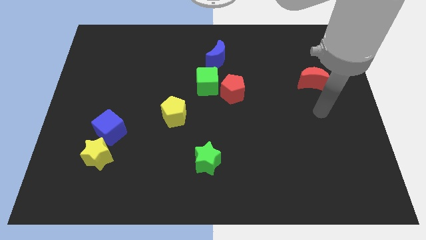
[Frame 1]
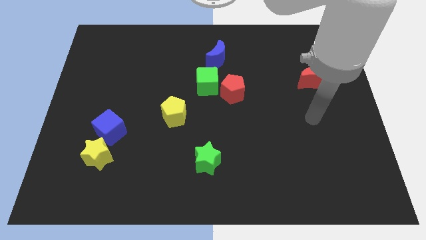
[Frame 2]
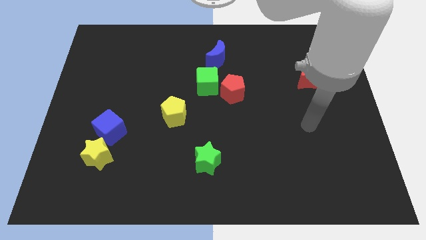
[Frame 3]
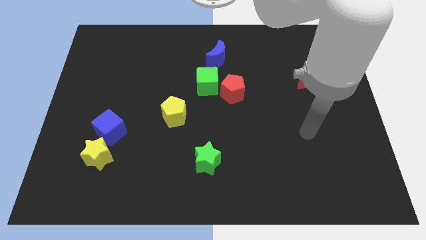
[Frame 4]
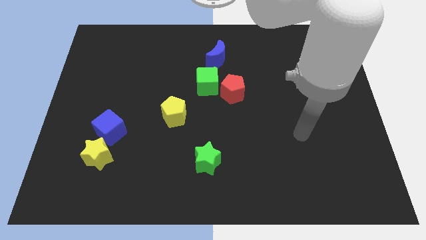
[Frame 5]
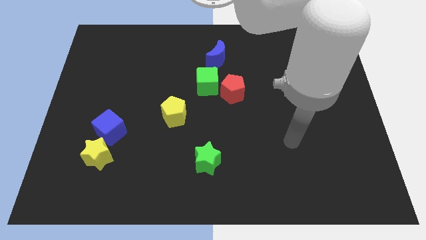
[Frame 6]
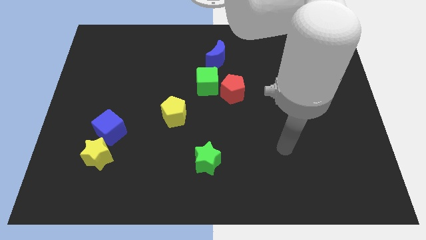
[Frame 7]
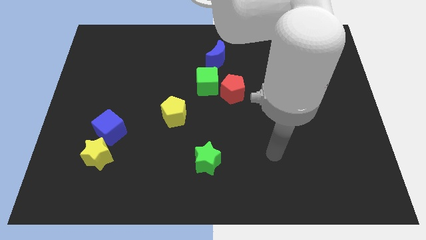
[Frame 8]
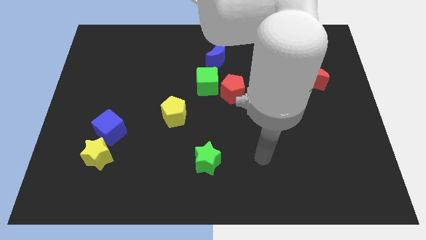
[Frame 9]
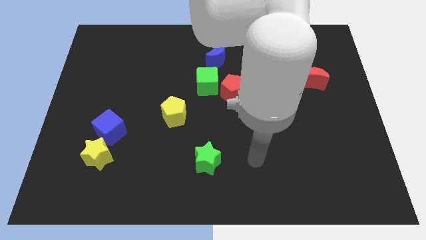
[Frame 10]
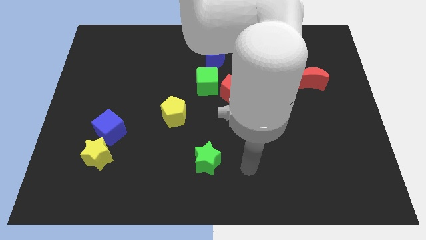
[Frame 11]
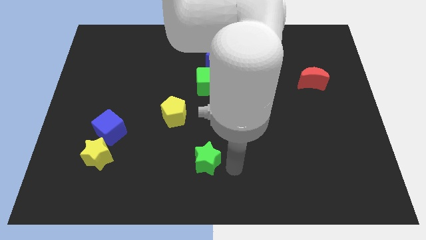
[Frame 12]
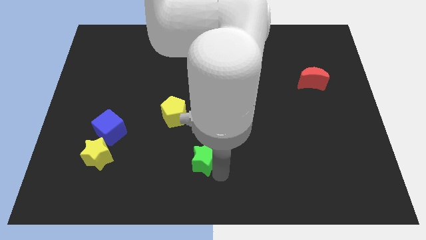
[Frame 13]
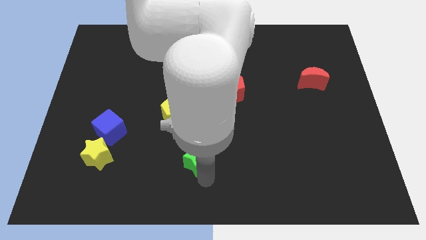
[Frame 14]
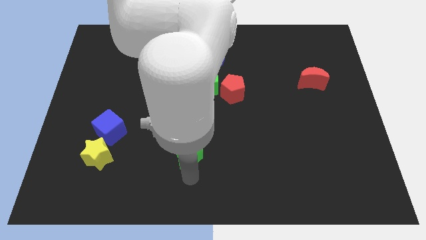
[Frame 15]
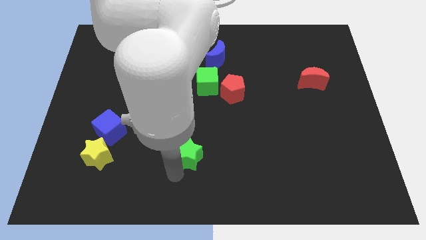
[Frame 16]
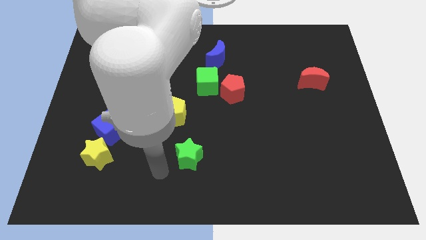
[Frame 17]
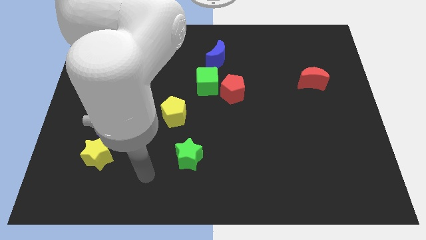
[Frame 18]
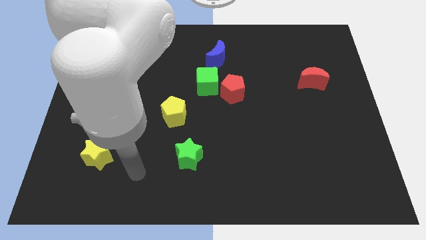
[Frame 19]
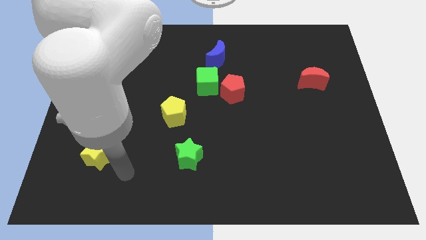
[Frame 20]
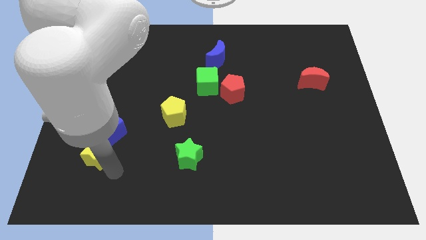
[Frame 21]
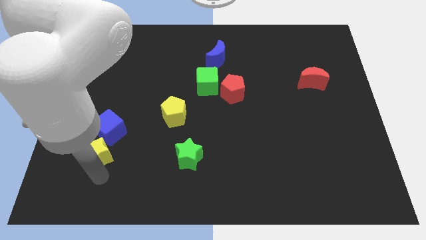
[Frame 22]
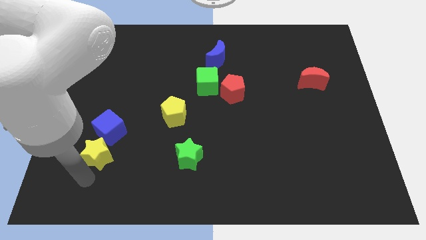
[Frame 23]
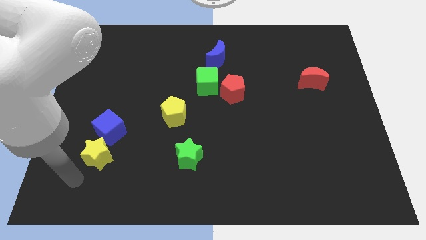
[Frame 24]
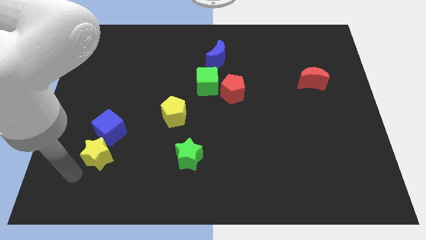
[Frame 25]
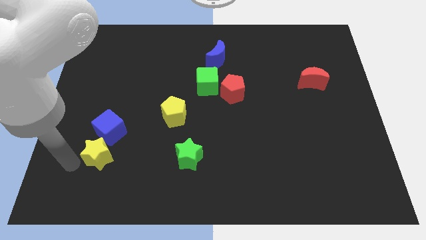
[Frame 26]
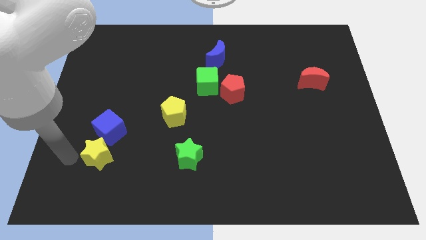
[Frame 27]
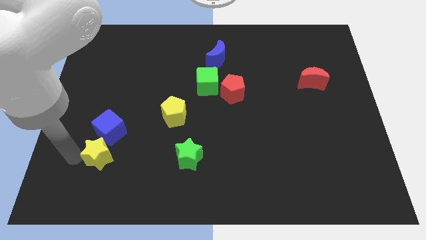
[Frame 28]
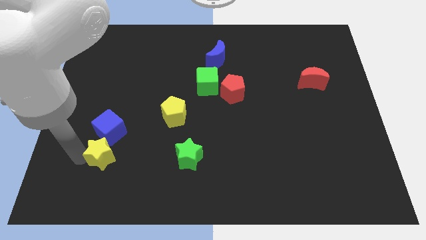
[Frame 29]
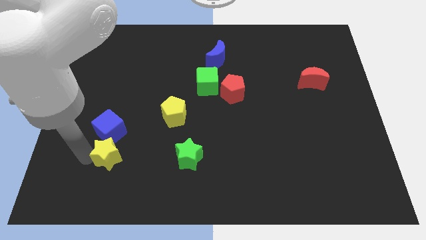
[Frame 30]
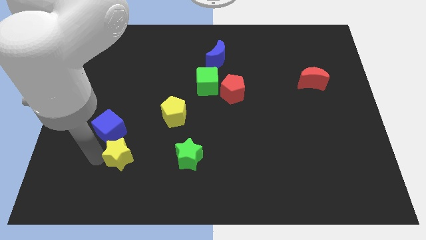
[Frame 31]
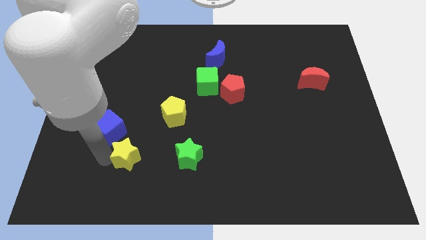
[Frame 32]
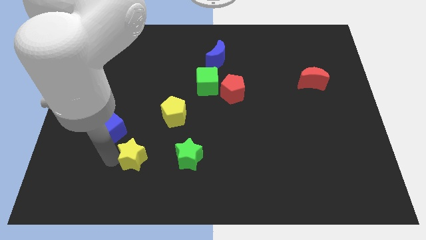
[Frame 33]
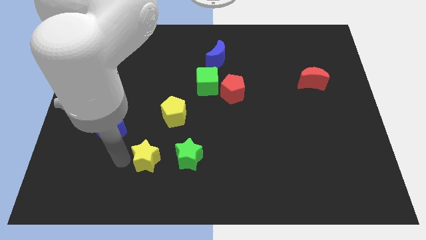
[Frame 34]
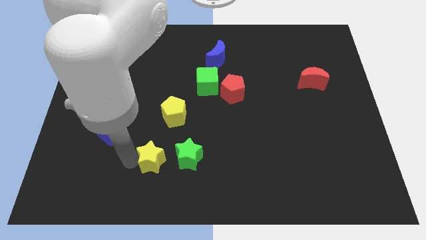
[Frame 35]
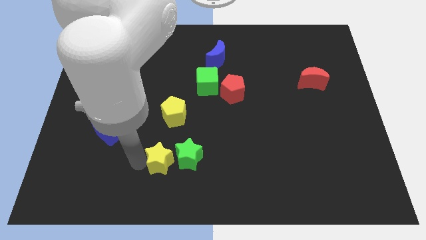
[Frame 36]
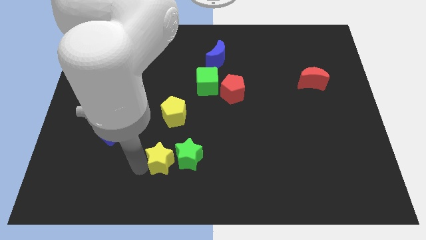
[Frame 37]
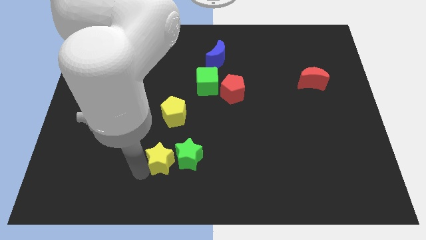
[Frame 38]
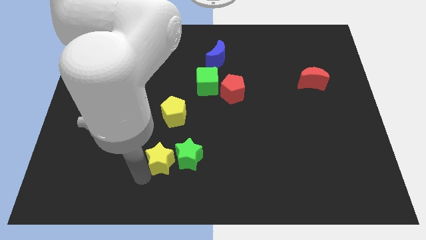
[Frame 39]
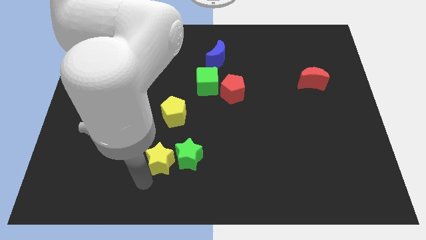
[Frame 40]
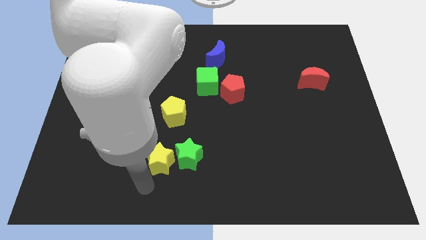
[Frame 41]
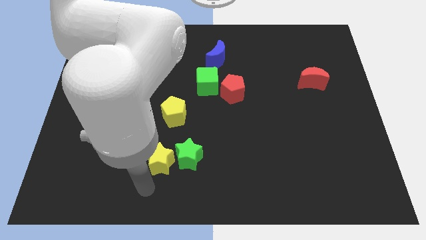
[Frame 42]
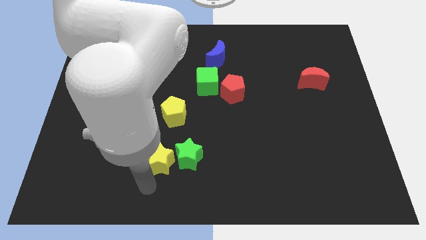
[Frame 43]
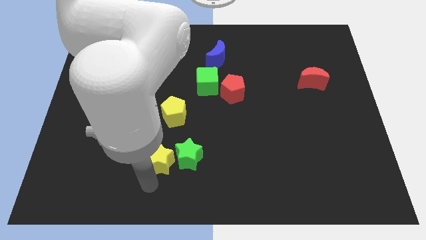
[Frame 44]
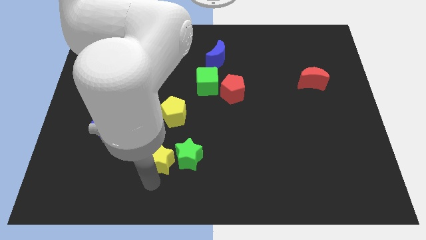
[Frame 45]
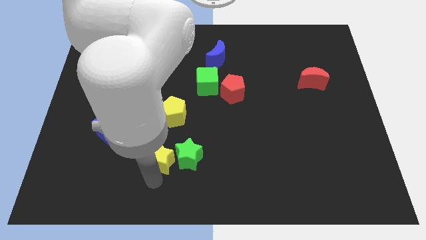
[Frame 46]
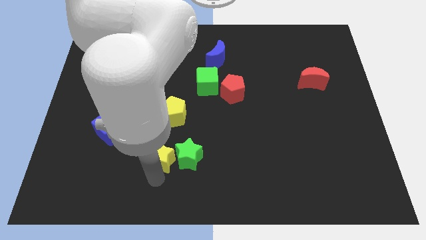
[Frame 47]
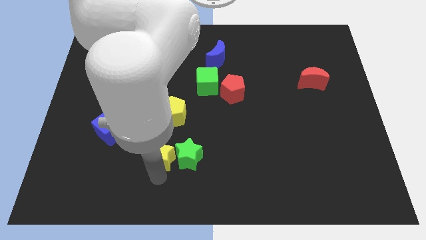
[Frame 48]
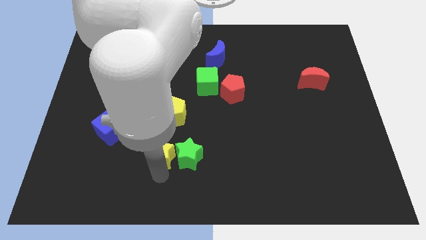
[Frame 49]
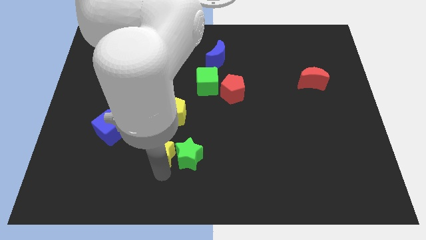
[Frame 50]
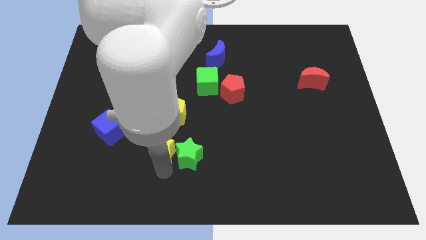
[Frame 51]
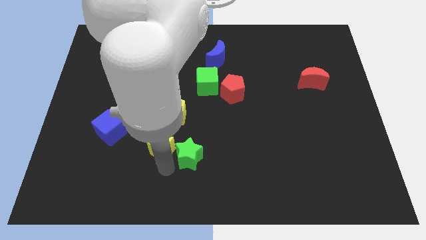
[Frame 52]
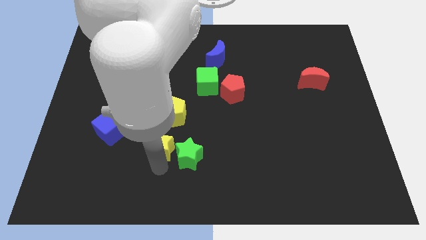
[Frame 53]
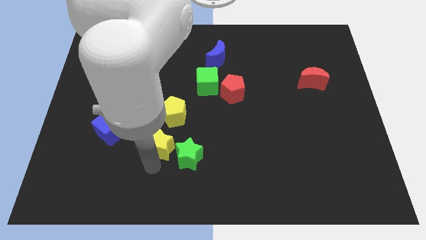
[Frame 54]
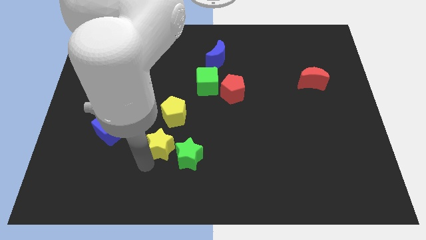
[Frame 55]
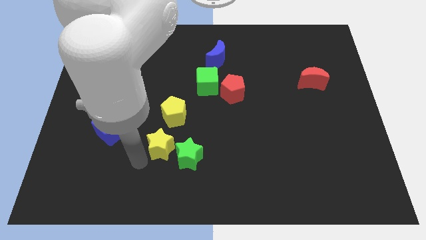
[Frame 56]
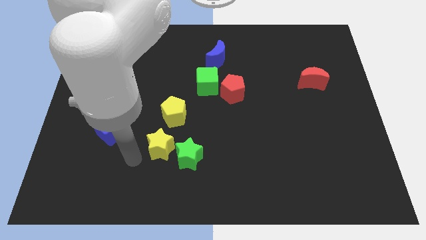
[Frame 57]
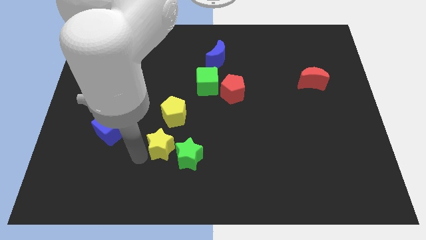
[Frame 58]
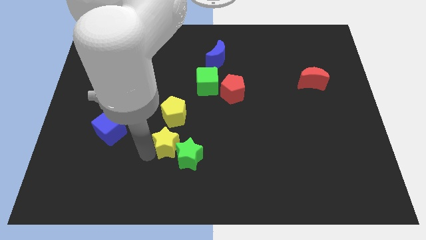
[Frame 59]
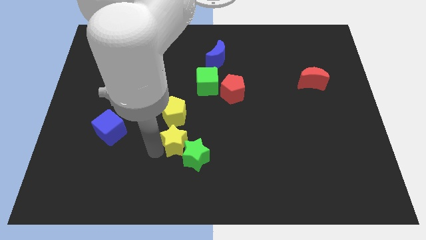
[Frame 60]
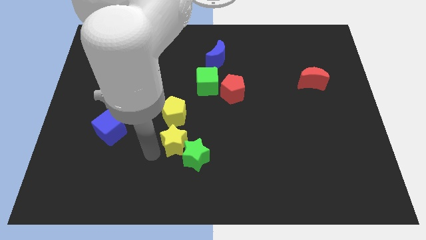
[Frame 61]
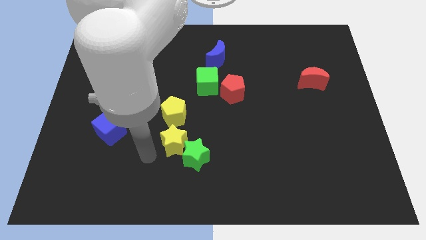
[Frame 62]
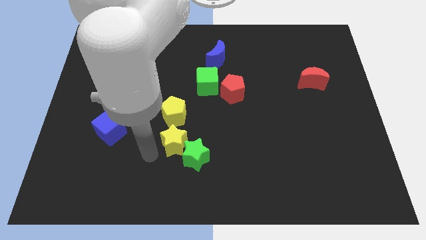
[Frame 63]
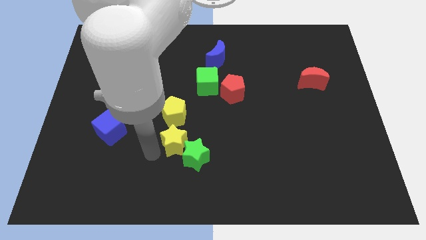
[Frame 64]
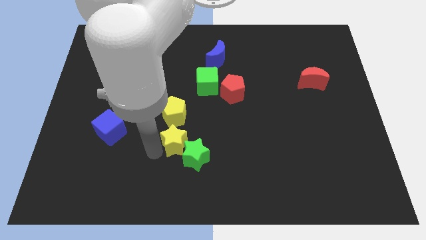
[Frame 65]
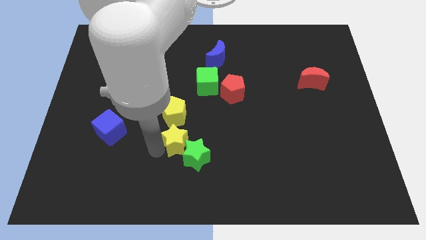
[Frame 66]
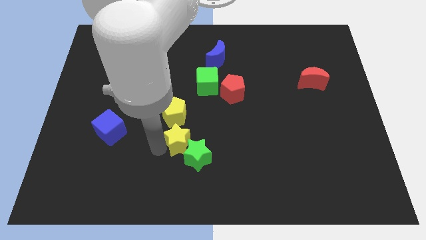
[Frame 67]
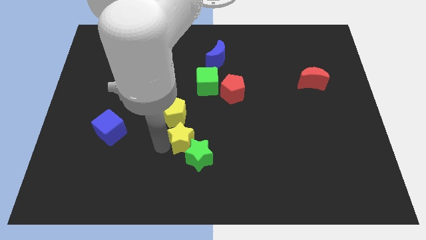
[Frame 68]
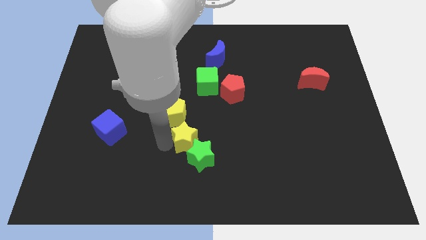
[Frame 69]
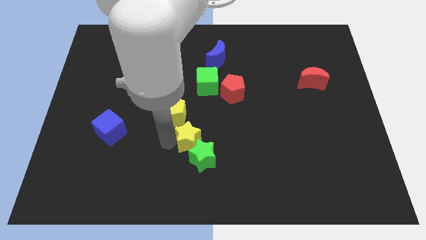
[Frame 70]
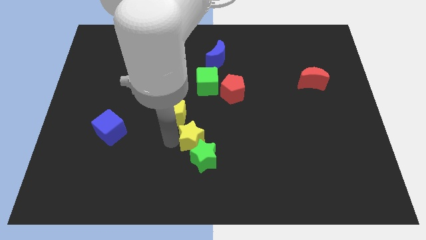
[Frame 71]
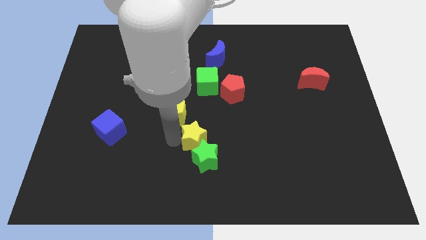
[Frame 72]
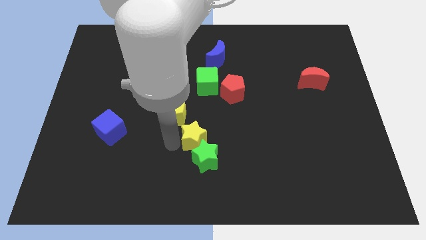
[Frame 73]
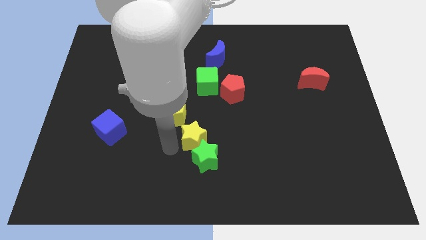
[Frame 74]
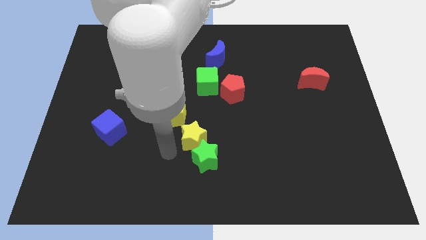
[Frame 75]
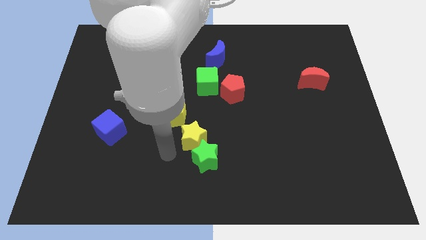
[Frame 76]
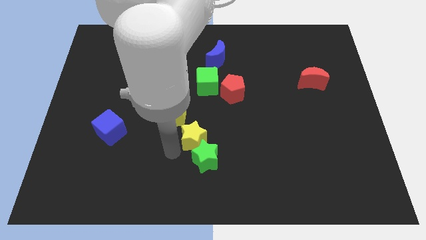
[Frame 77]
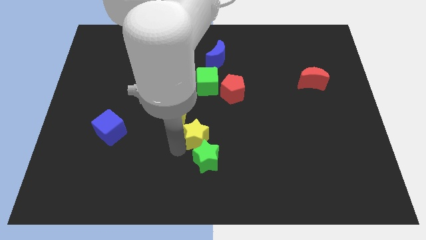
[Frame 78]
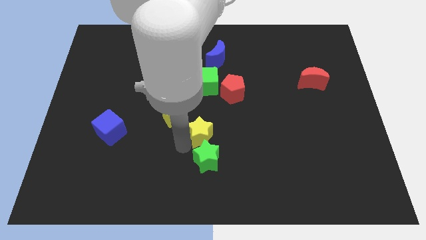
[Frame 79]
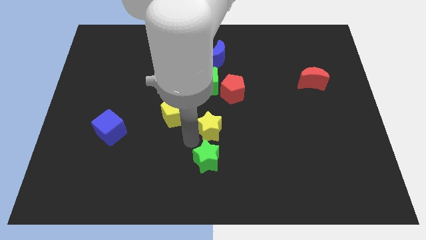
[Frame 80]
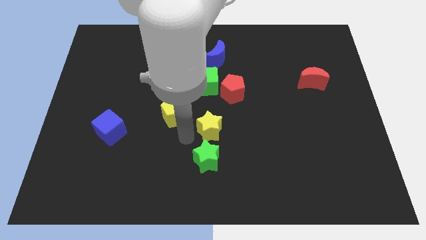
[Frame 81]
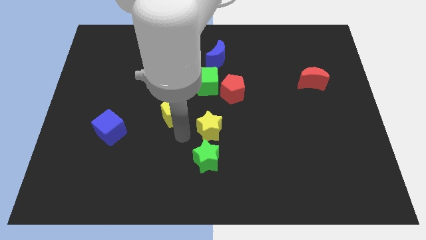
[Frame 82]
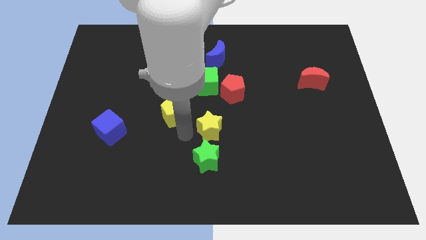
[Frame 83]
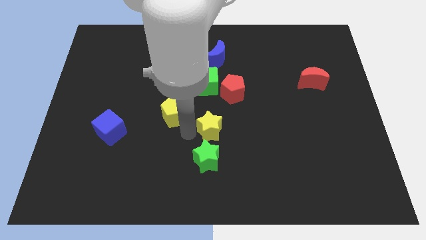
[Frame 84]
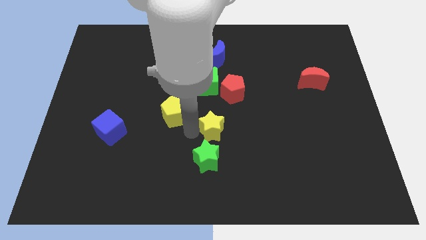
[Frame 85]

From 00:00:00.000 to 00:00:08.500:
put the yellow star below the red pentagon
